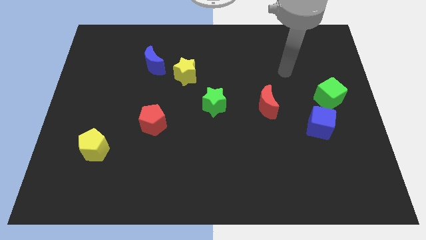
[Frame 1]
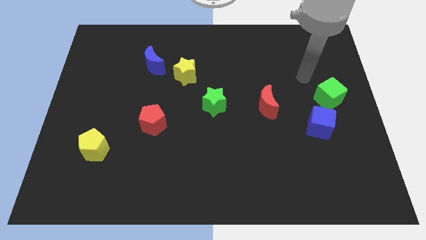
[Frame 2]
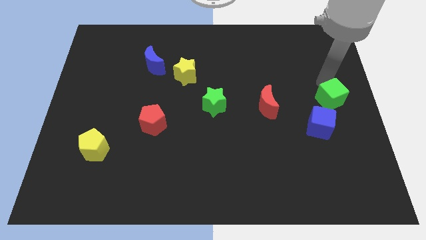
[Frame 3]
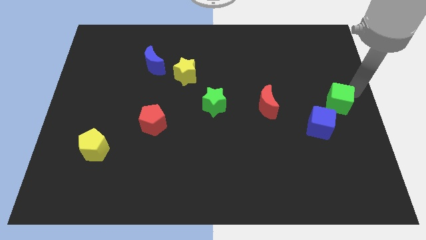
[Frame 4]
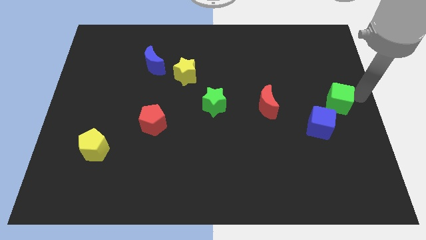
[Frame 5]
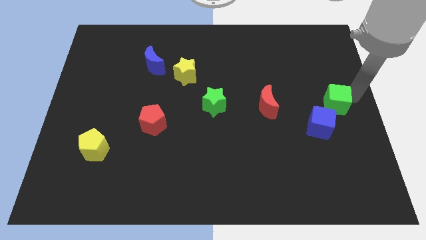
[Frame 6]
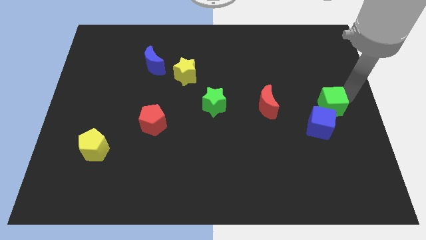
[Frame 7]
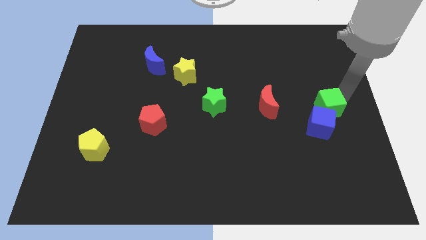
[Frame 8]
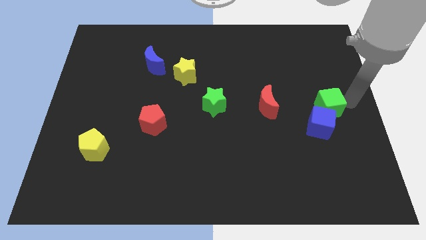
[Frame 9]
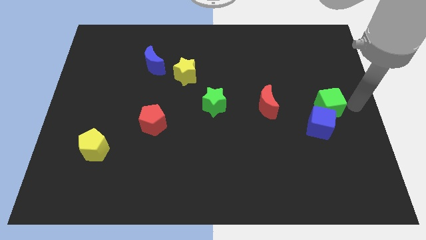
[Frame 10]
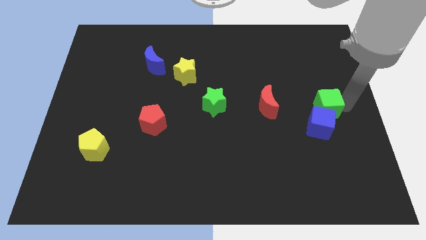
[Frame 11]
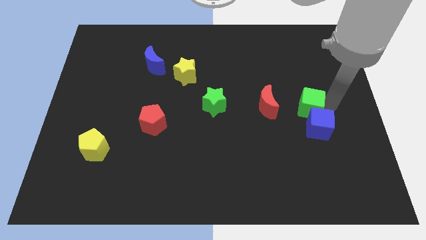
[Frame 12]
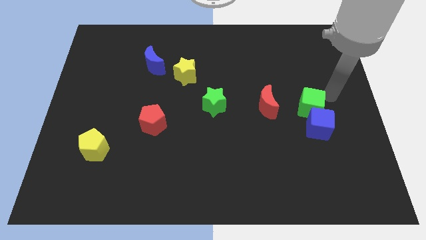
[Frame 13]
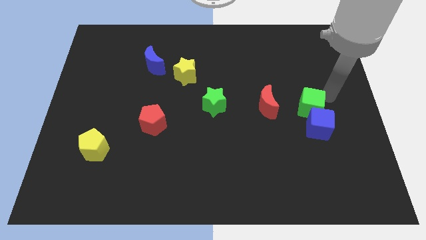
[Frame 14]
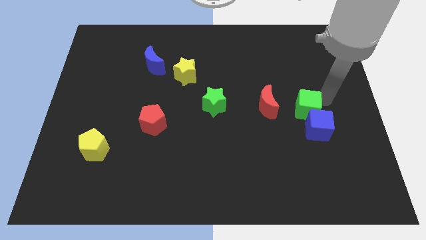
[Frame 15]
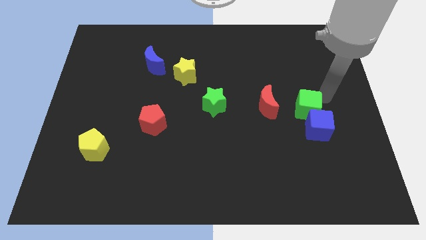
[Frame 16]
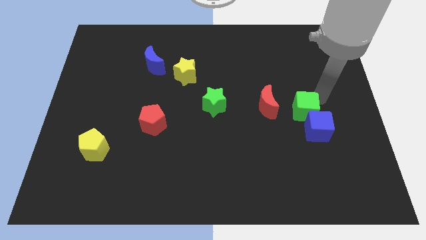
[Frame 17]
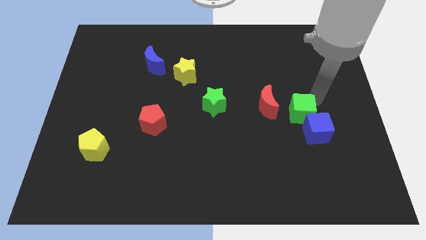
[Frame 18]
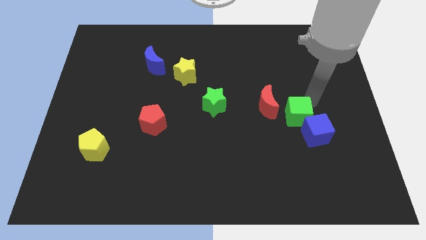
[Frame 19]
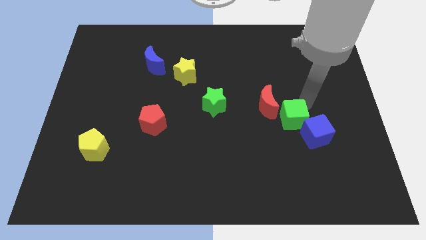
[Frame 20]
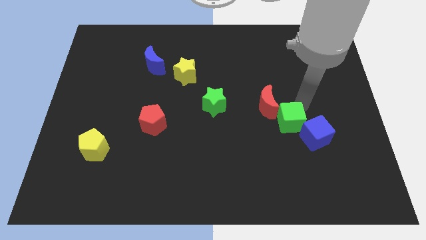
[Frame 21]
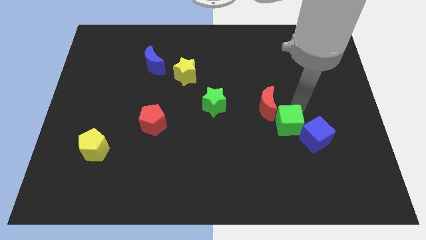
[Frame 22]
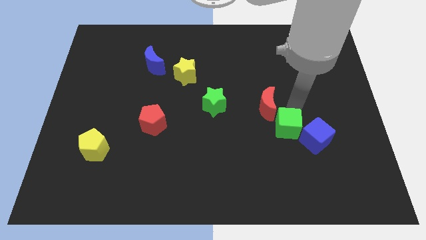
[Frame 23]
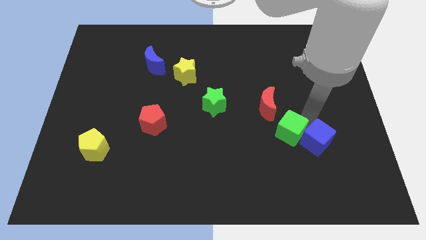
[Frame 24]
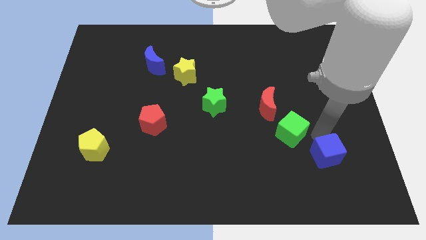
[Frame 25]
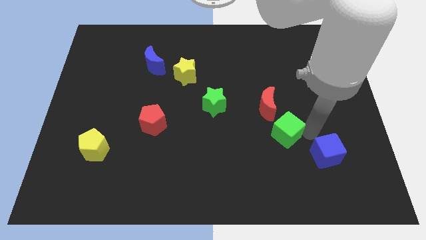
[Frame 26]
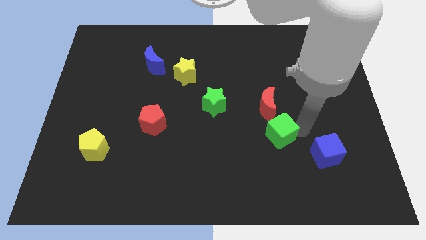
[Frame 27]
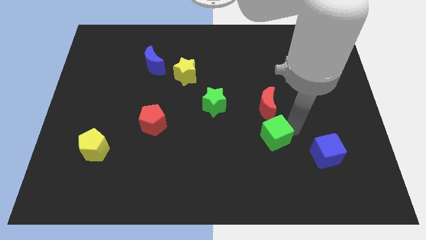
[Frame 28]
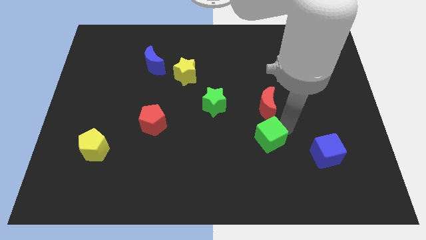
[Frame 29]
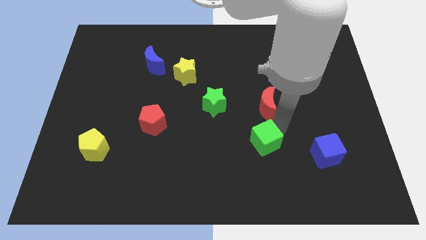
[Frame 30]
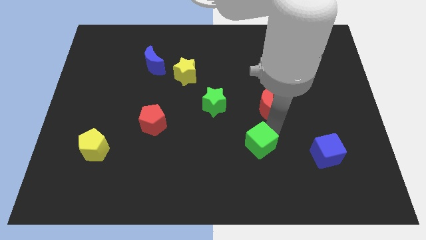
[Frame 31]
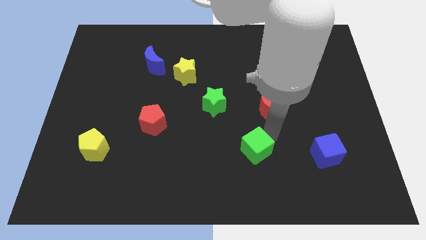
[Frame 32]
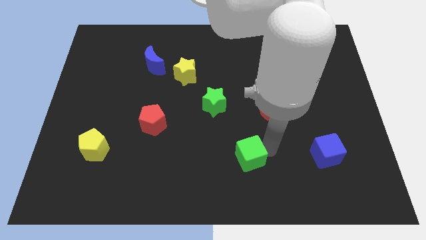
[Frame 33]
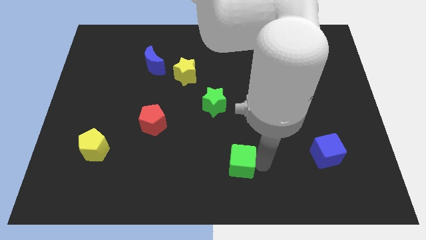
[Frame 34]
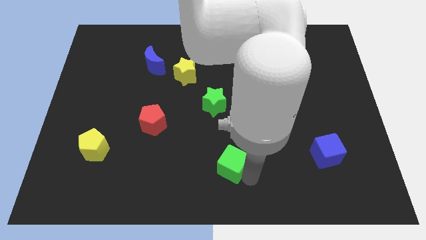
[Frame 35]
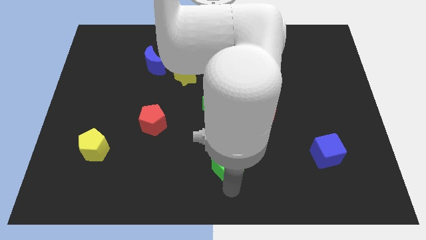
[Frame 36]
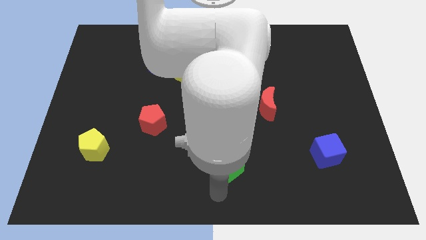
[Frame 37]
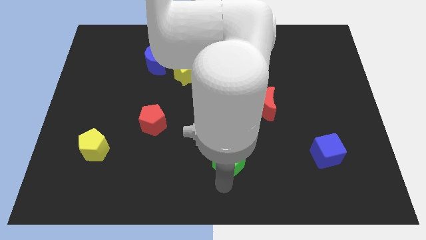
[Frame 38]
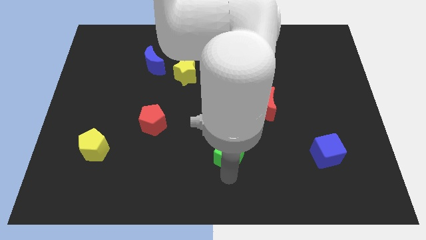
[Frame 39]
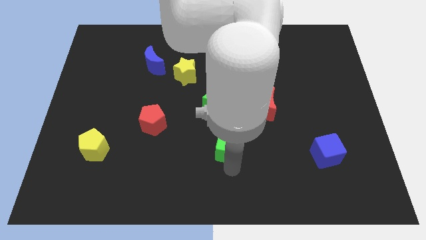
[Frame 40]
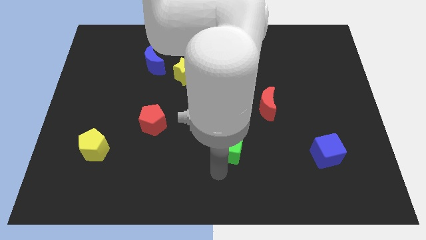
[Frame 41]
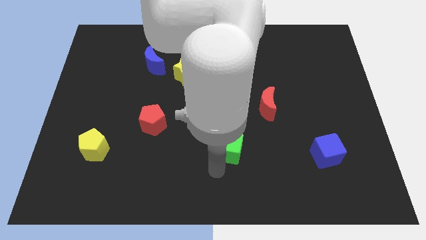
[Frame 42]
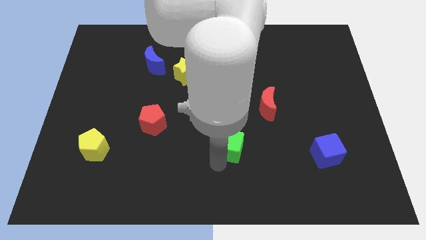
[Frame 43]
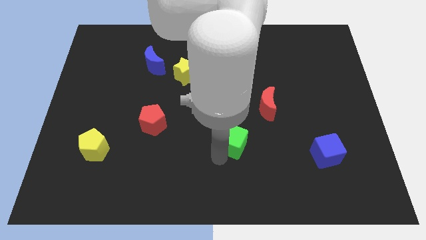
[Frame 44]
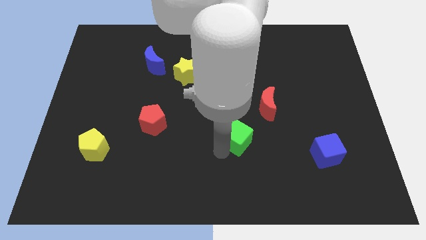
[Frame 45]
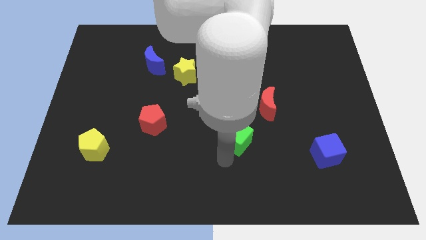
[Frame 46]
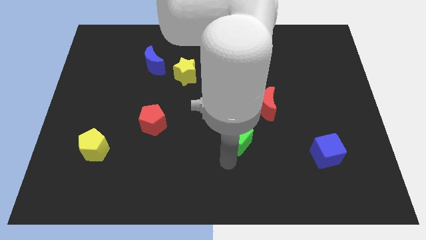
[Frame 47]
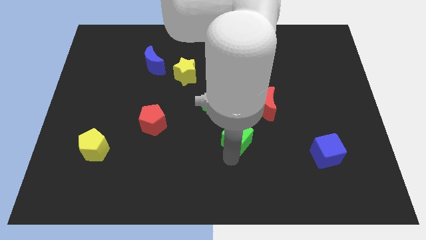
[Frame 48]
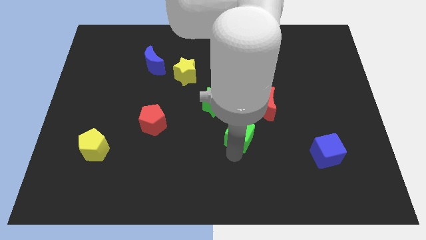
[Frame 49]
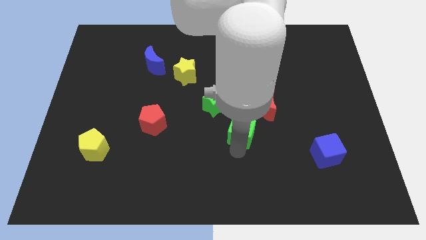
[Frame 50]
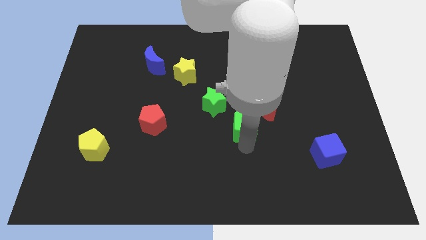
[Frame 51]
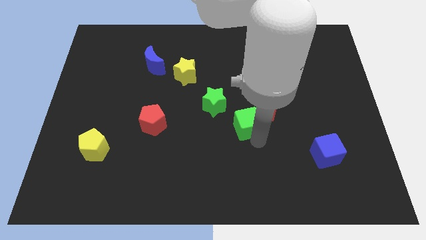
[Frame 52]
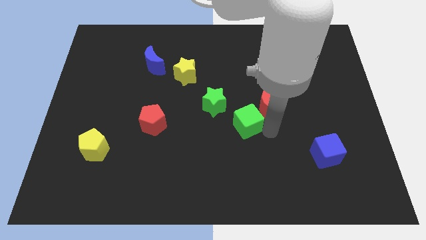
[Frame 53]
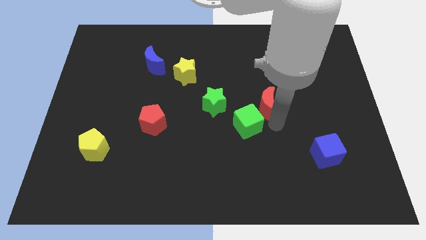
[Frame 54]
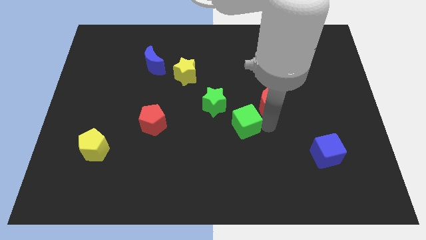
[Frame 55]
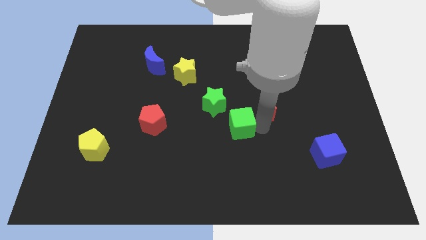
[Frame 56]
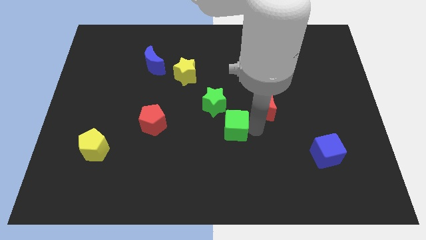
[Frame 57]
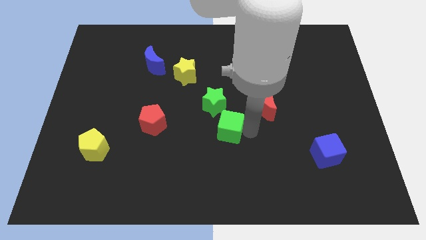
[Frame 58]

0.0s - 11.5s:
push the green cube left

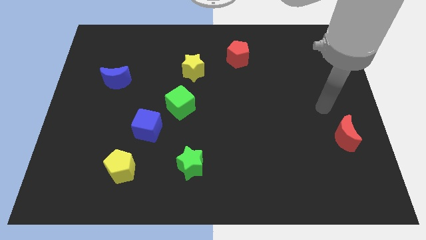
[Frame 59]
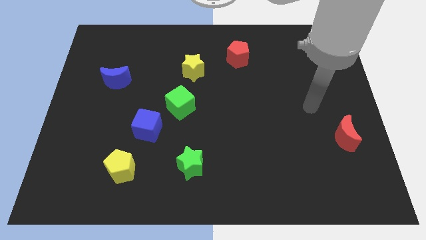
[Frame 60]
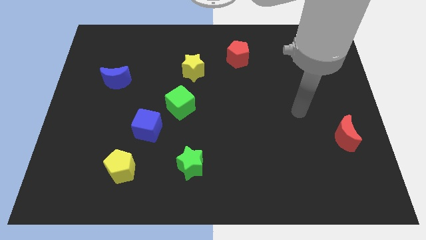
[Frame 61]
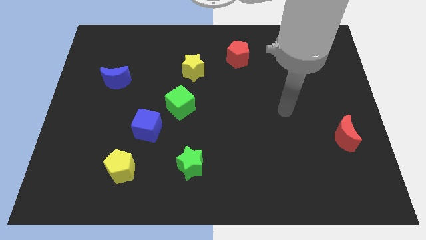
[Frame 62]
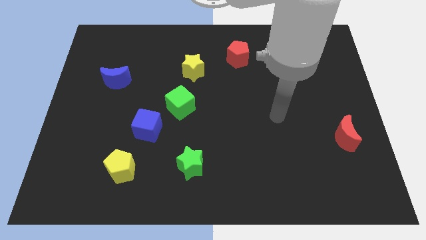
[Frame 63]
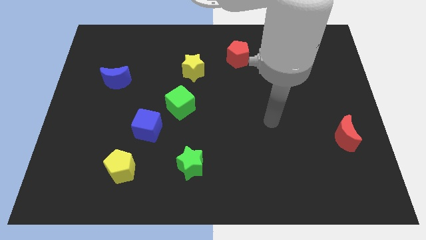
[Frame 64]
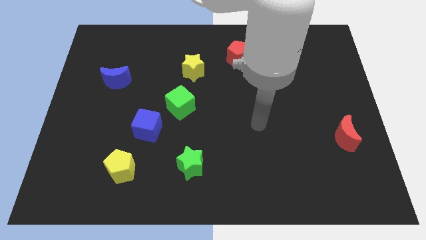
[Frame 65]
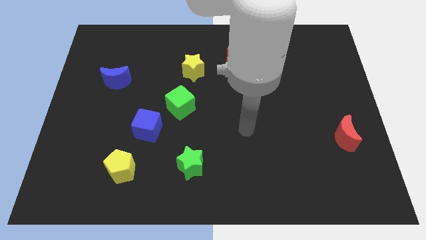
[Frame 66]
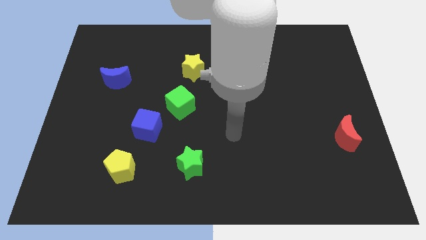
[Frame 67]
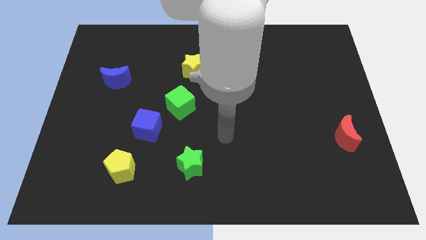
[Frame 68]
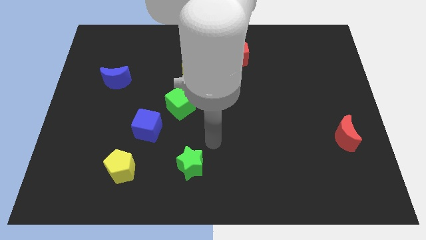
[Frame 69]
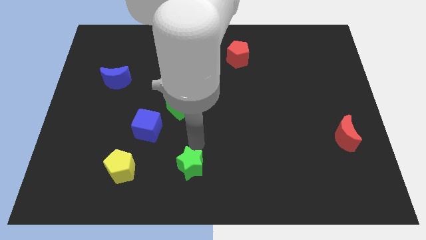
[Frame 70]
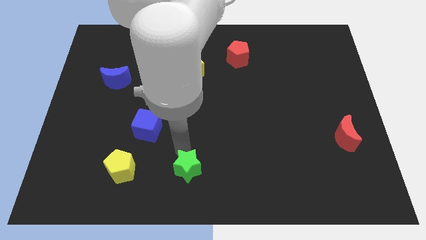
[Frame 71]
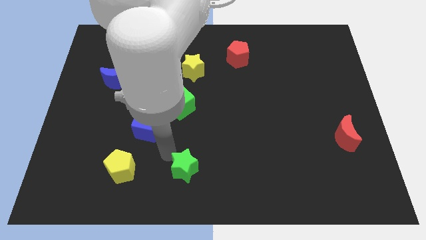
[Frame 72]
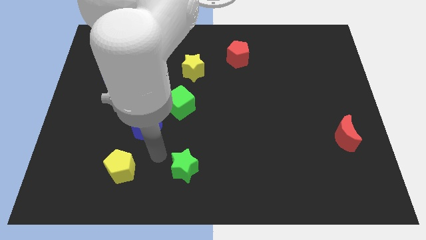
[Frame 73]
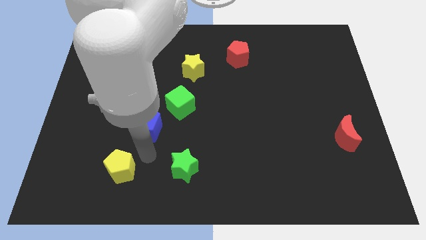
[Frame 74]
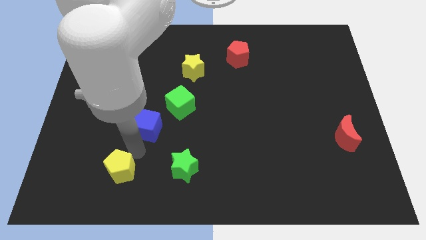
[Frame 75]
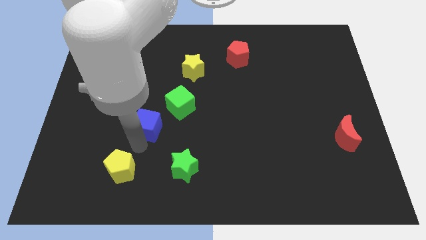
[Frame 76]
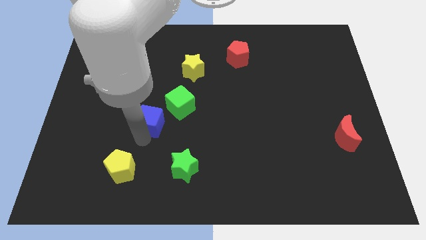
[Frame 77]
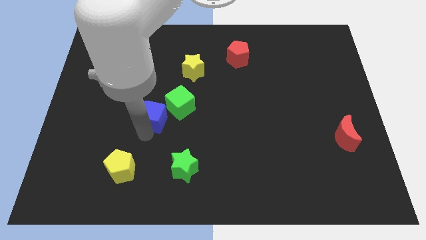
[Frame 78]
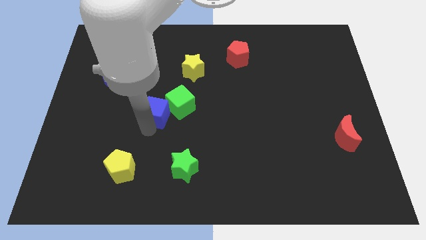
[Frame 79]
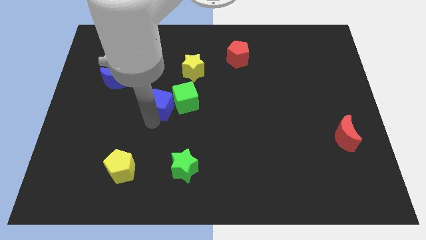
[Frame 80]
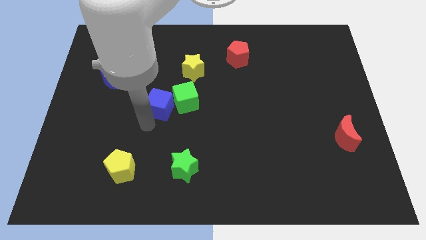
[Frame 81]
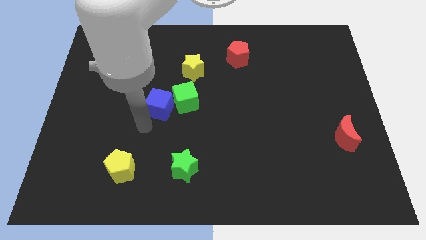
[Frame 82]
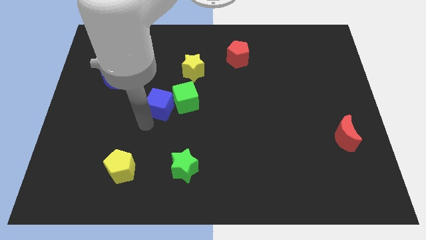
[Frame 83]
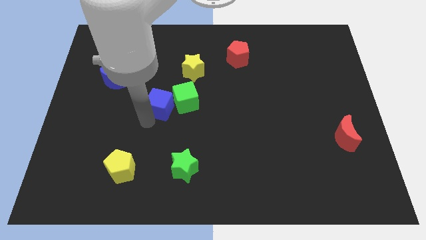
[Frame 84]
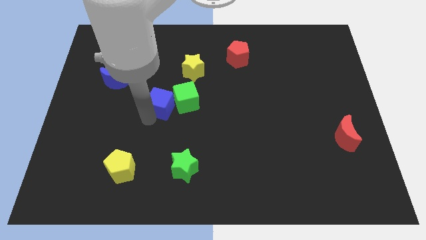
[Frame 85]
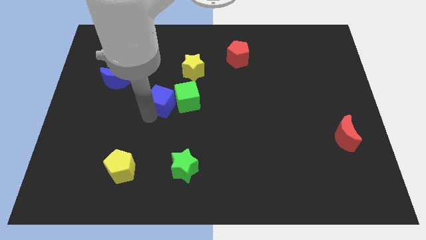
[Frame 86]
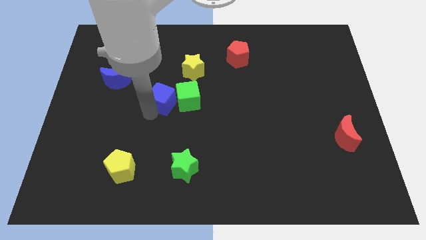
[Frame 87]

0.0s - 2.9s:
slightly move the blue cube diagonally up and right
